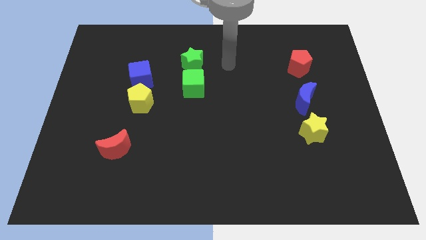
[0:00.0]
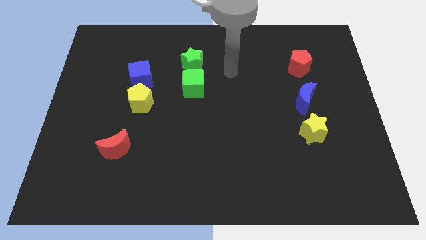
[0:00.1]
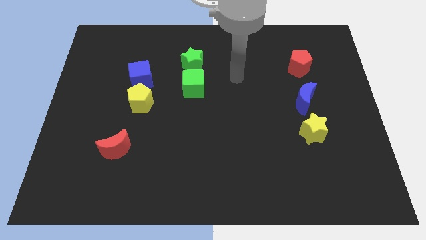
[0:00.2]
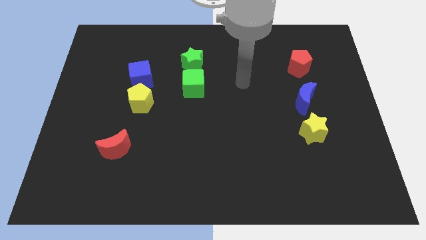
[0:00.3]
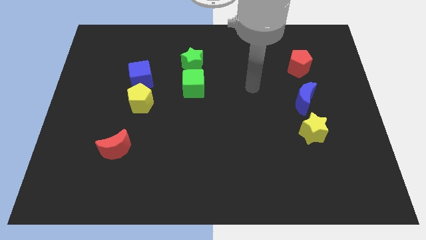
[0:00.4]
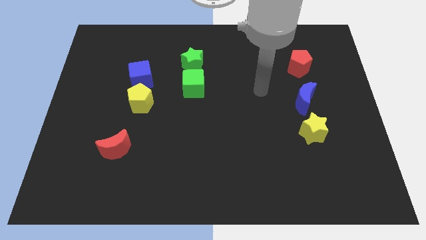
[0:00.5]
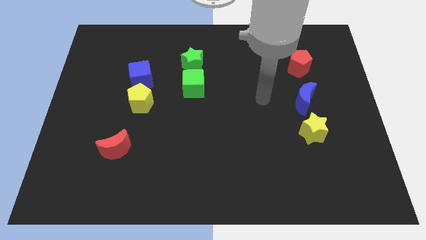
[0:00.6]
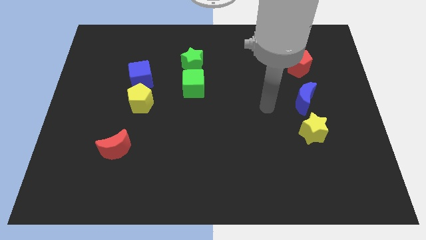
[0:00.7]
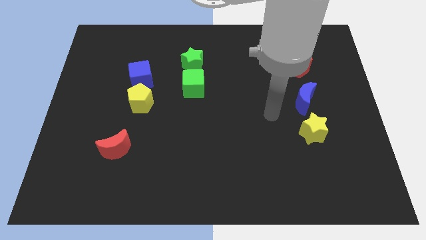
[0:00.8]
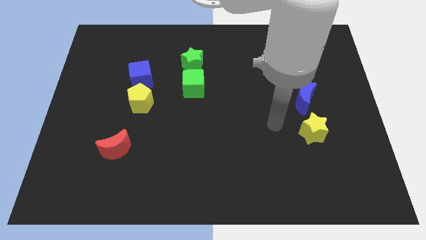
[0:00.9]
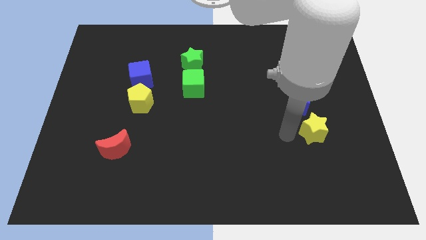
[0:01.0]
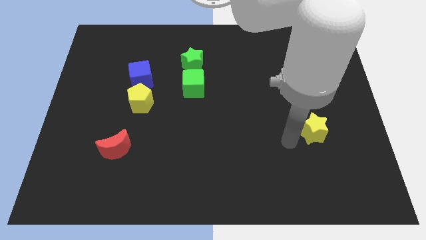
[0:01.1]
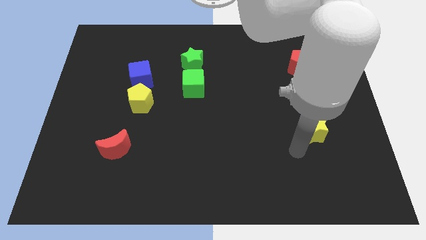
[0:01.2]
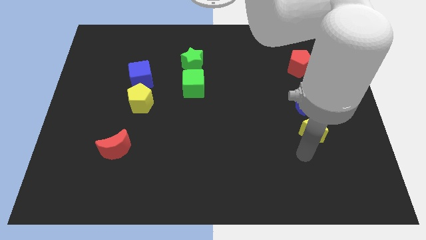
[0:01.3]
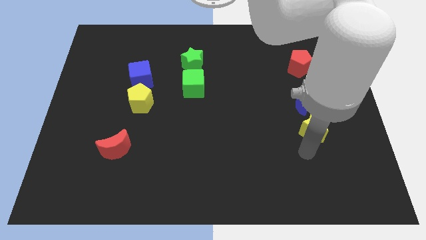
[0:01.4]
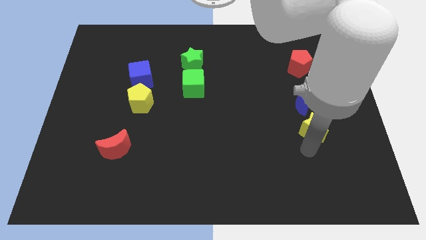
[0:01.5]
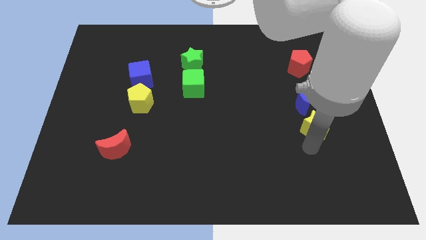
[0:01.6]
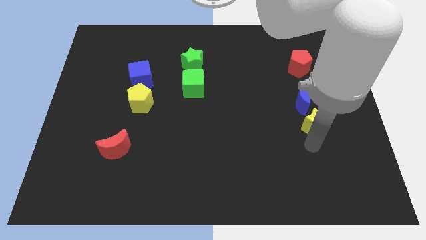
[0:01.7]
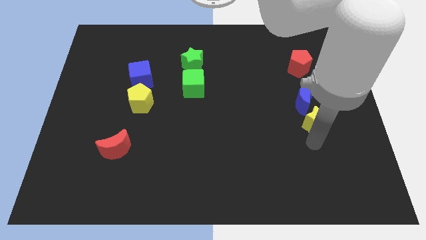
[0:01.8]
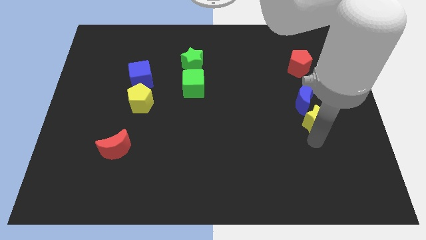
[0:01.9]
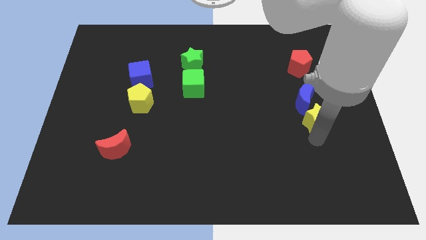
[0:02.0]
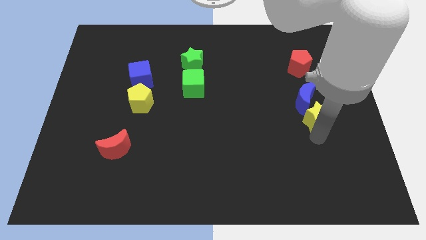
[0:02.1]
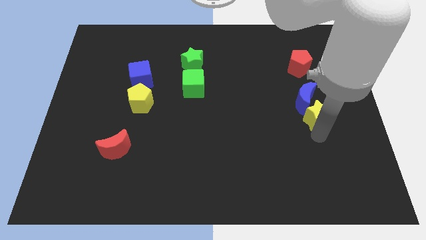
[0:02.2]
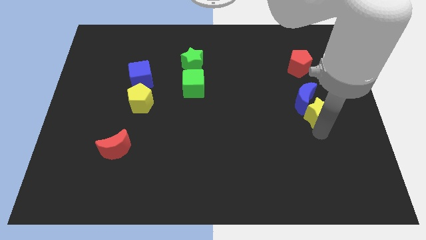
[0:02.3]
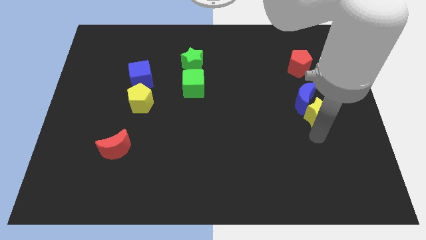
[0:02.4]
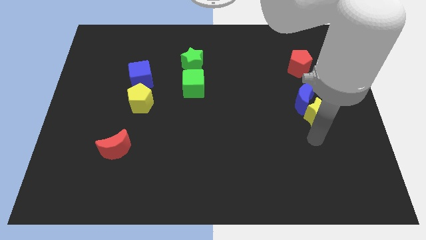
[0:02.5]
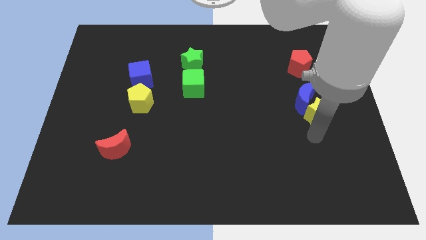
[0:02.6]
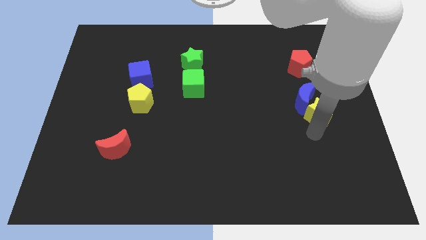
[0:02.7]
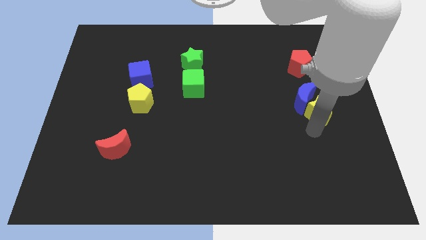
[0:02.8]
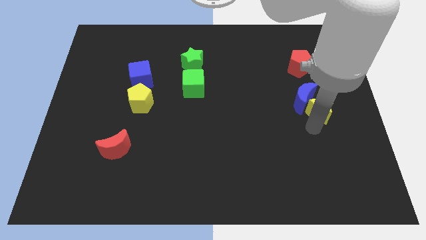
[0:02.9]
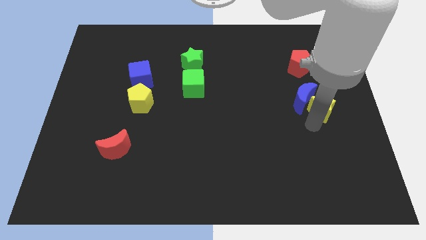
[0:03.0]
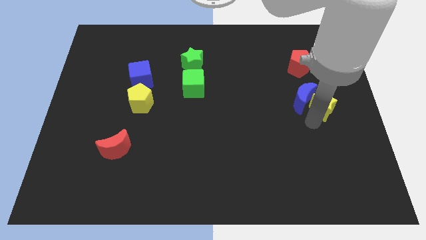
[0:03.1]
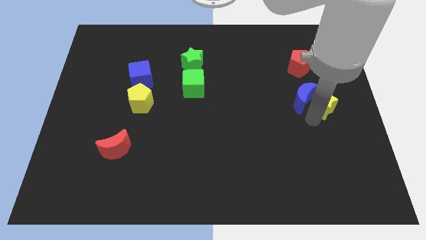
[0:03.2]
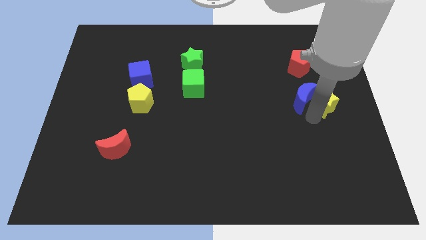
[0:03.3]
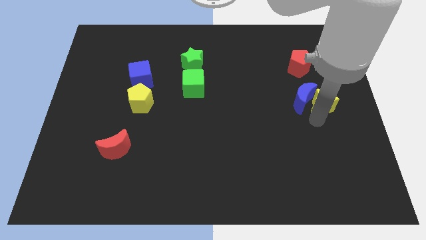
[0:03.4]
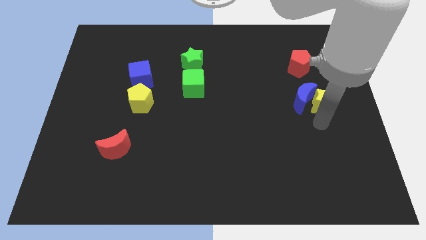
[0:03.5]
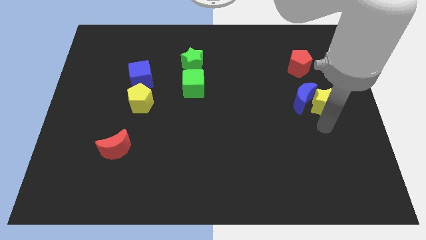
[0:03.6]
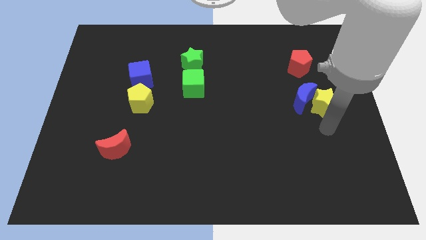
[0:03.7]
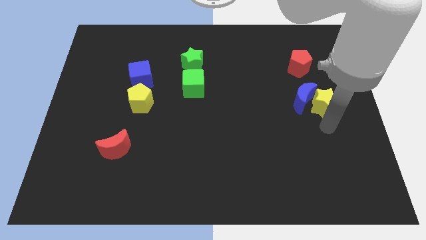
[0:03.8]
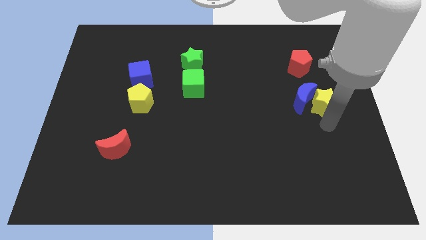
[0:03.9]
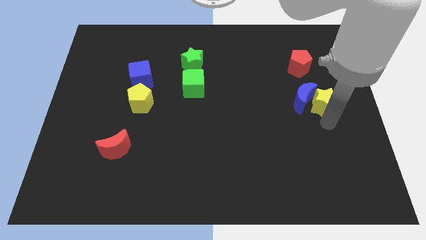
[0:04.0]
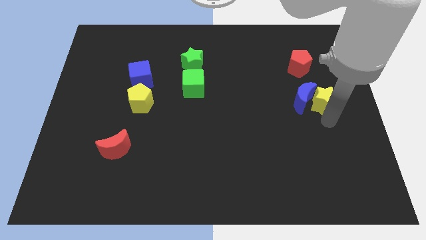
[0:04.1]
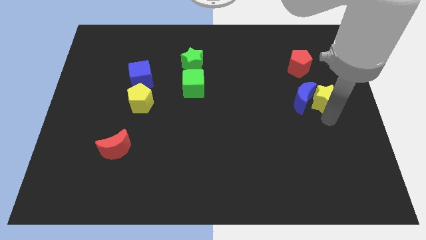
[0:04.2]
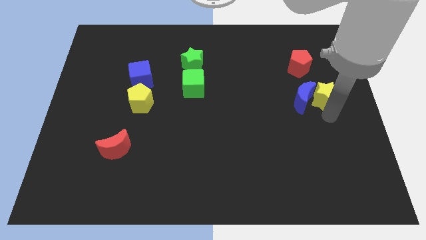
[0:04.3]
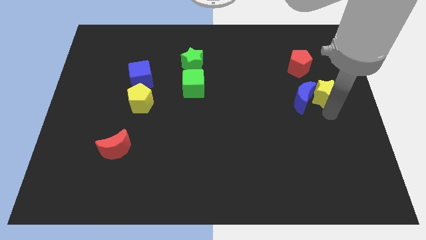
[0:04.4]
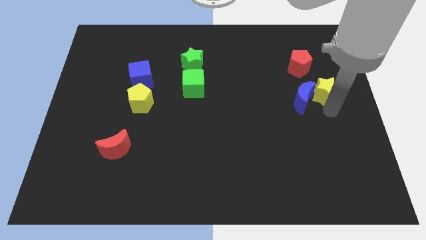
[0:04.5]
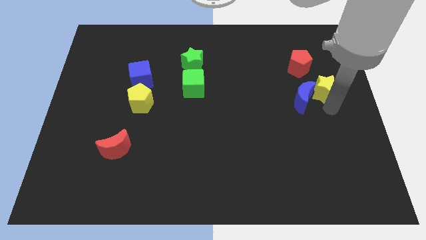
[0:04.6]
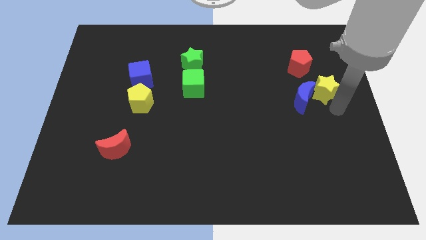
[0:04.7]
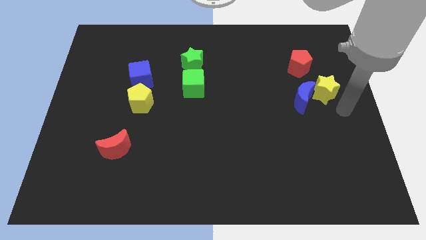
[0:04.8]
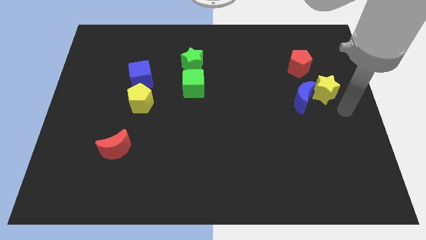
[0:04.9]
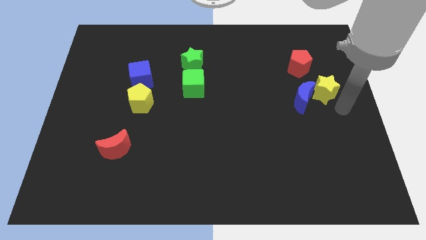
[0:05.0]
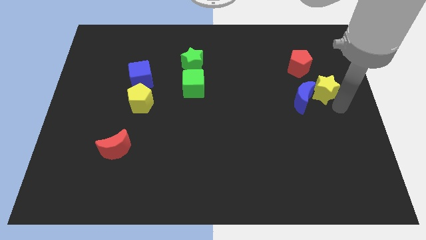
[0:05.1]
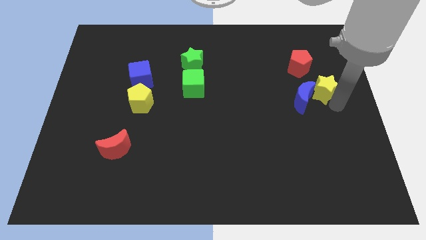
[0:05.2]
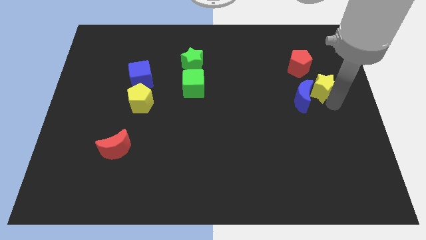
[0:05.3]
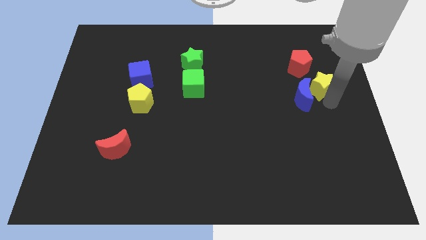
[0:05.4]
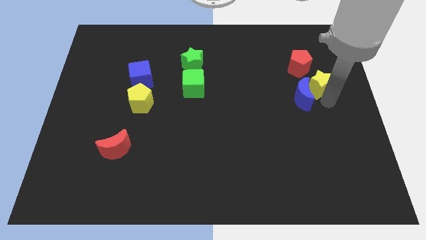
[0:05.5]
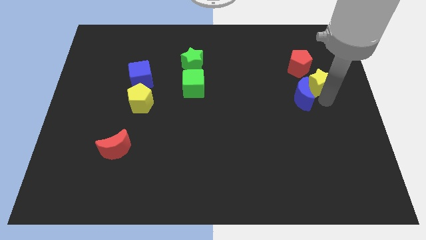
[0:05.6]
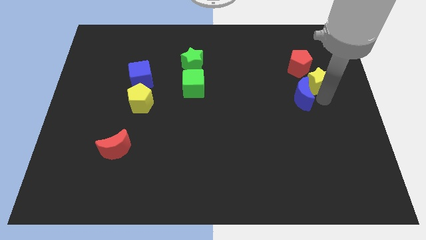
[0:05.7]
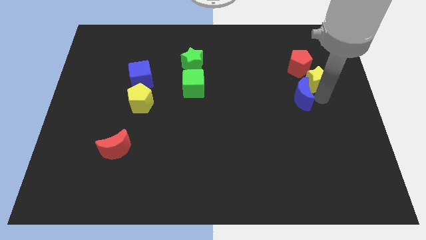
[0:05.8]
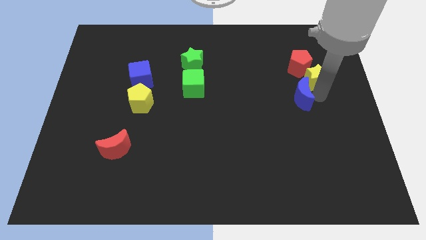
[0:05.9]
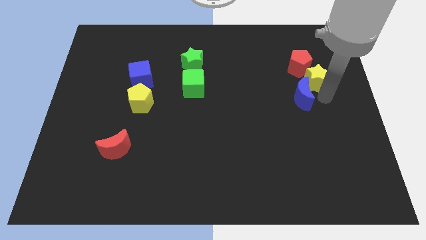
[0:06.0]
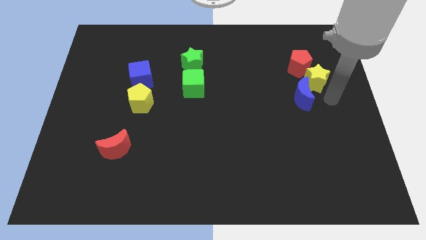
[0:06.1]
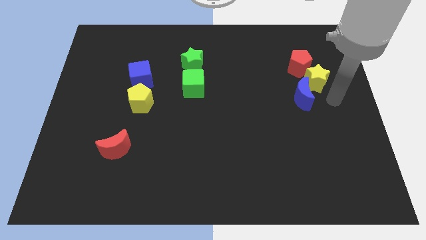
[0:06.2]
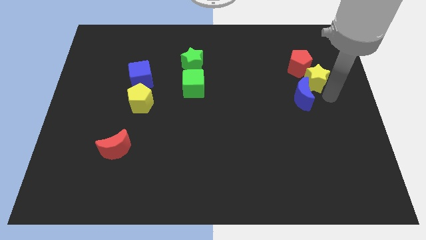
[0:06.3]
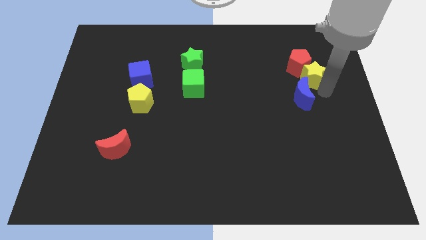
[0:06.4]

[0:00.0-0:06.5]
move the yellow star close to the red pentagon

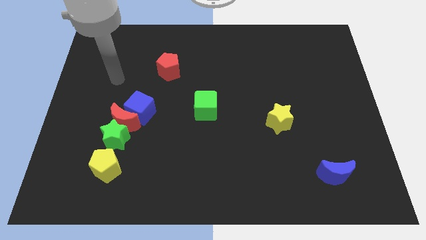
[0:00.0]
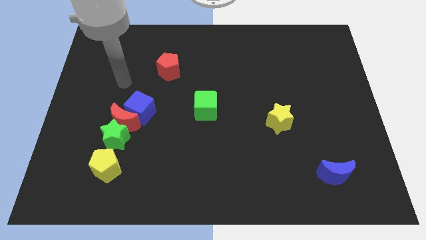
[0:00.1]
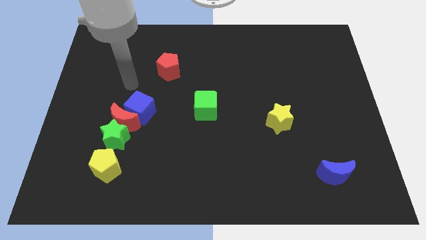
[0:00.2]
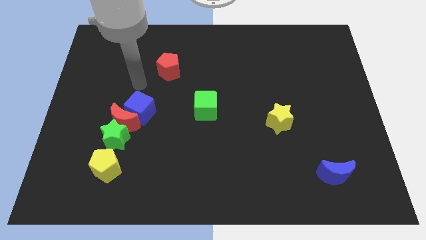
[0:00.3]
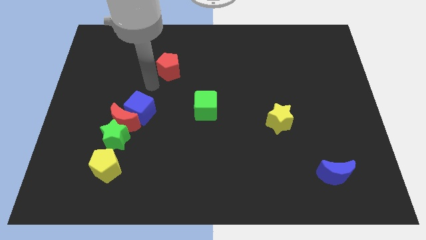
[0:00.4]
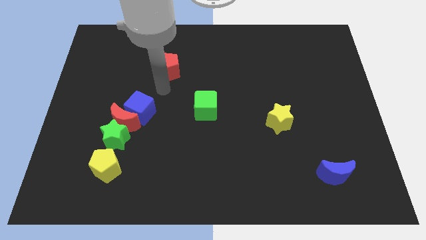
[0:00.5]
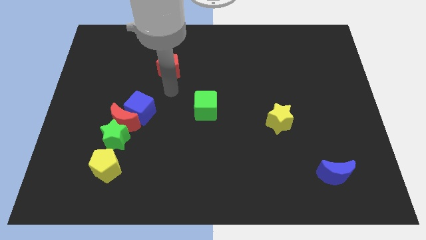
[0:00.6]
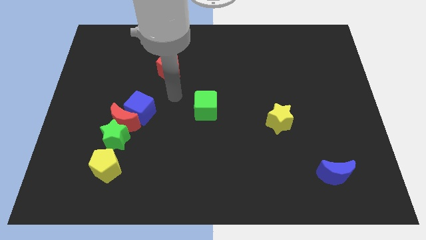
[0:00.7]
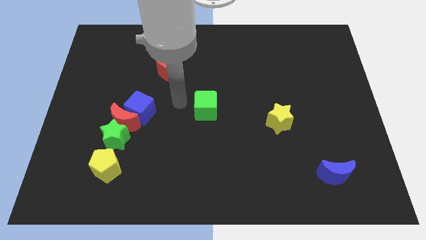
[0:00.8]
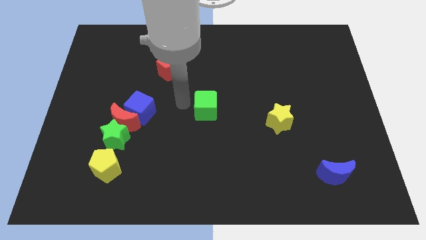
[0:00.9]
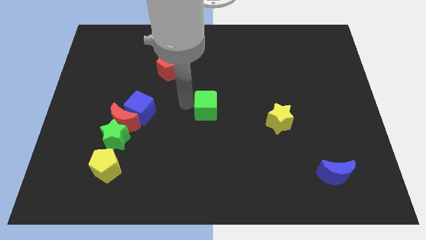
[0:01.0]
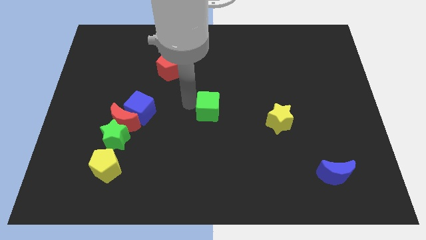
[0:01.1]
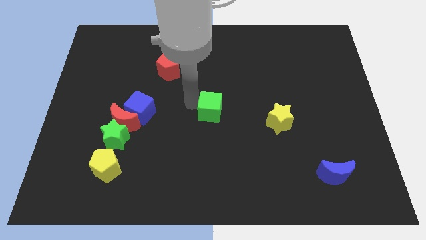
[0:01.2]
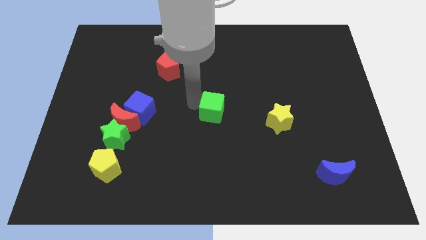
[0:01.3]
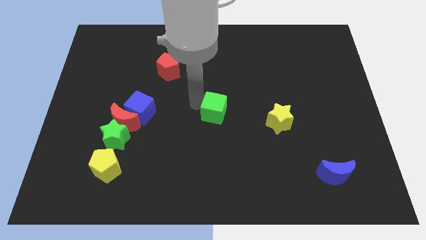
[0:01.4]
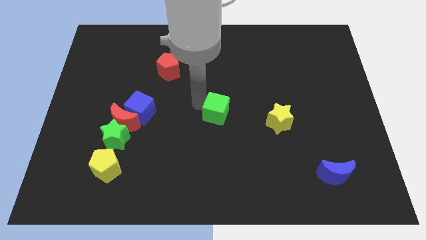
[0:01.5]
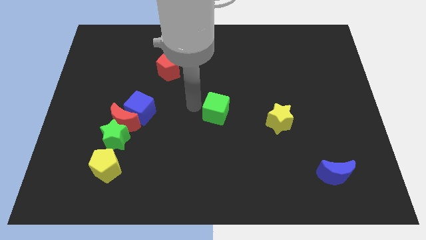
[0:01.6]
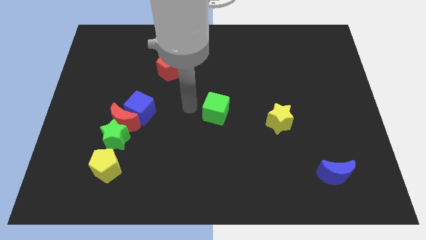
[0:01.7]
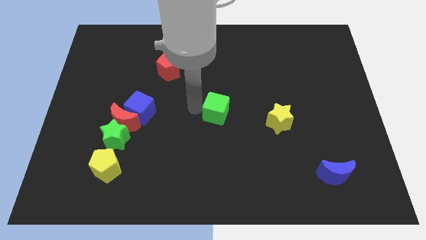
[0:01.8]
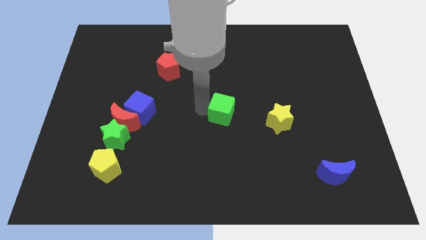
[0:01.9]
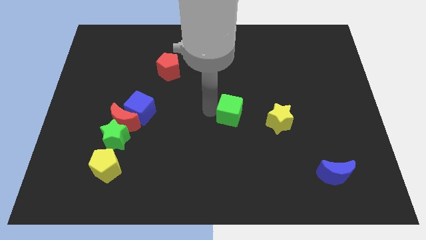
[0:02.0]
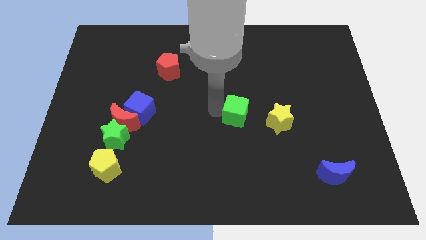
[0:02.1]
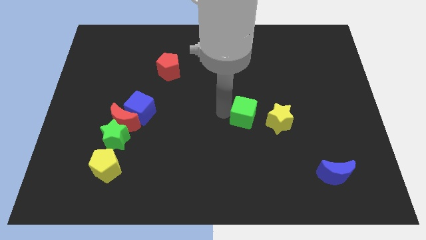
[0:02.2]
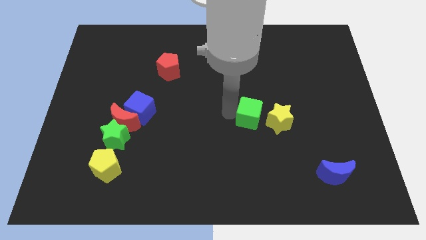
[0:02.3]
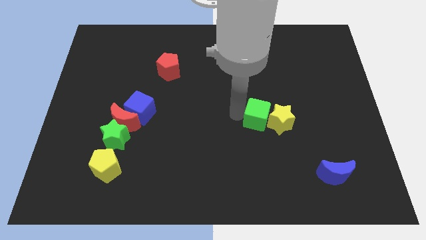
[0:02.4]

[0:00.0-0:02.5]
move the green cube close to the yellow star
